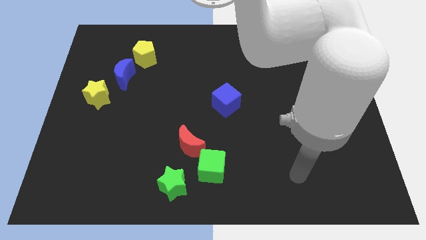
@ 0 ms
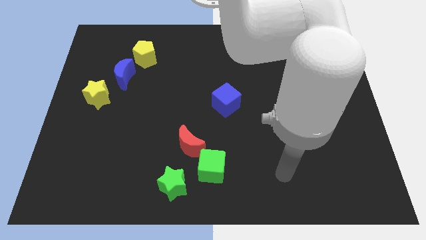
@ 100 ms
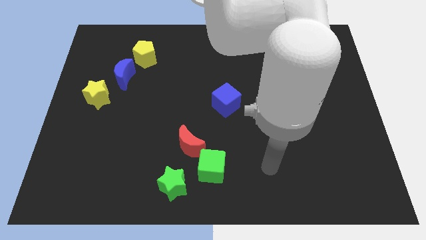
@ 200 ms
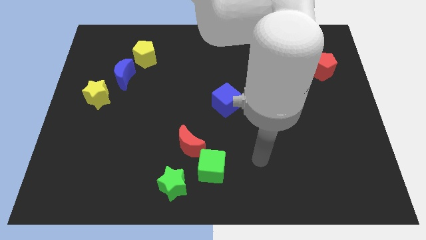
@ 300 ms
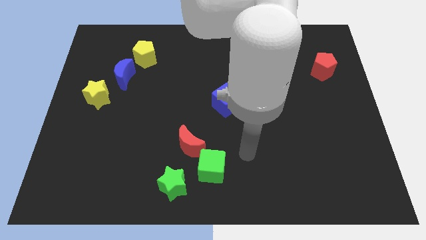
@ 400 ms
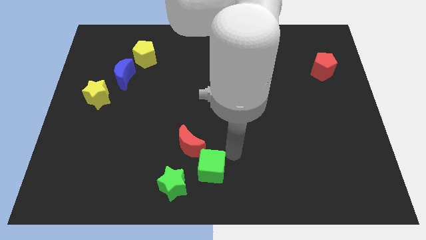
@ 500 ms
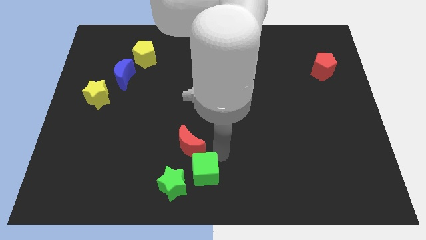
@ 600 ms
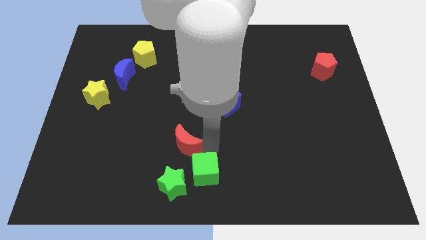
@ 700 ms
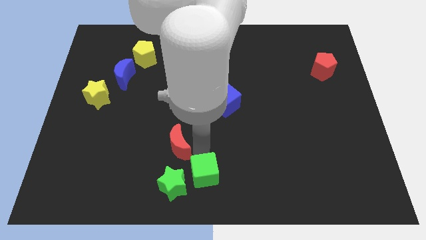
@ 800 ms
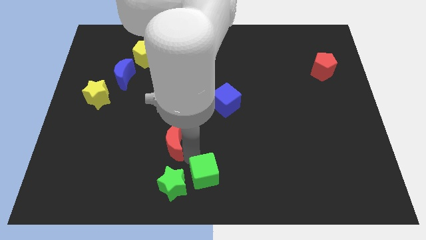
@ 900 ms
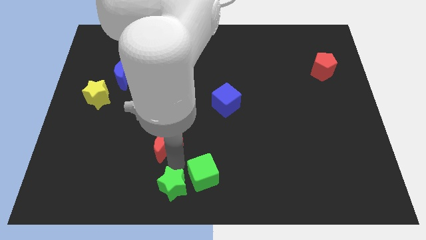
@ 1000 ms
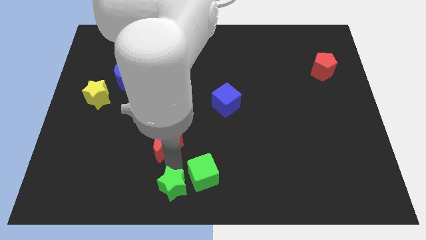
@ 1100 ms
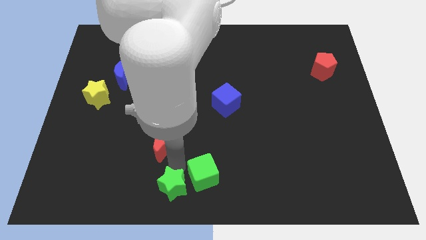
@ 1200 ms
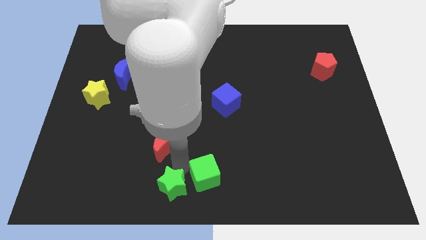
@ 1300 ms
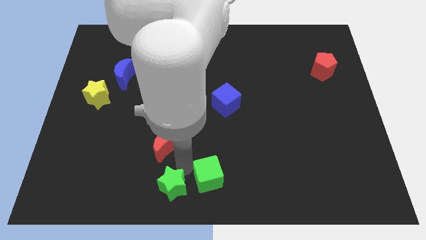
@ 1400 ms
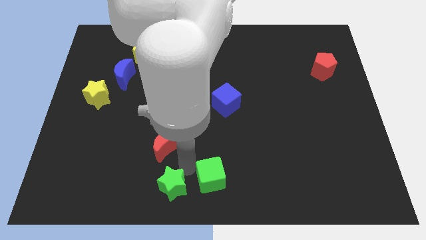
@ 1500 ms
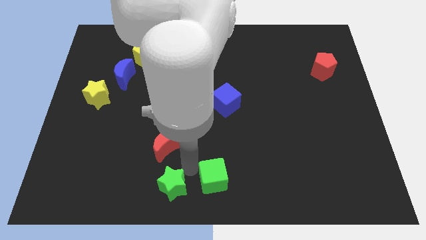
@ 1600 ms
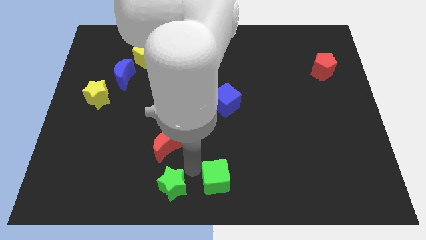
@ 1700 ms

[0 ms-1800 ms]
separate the green cube from the red moon and green star

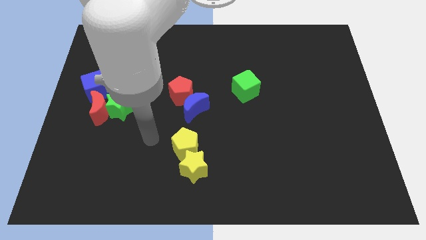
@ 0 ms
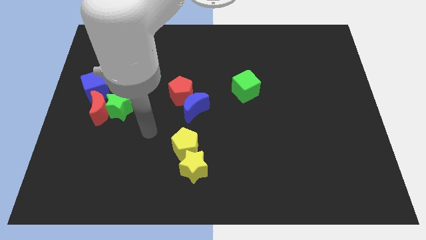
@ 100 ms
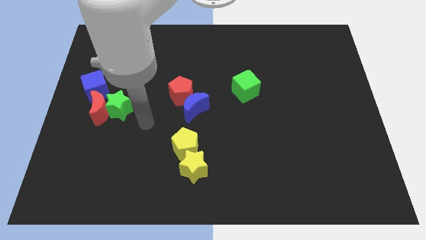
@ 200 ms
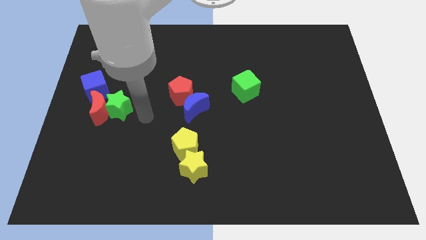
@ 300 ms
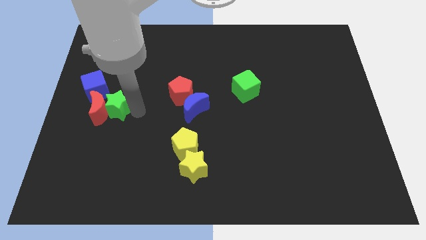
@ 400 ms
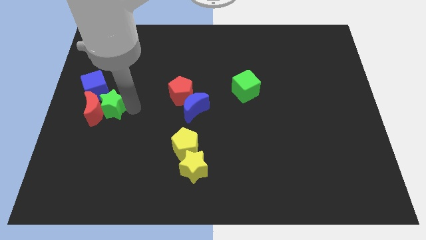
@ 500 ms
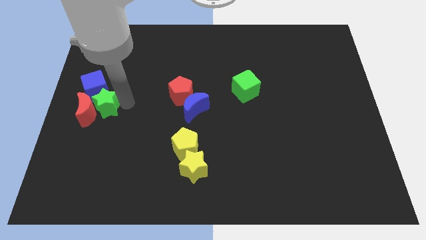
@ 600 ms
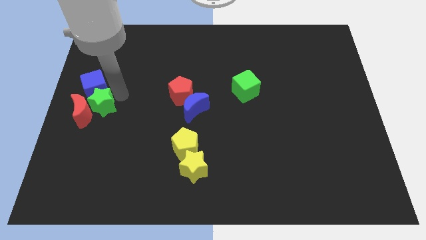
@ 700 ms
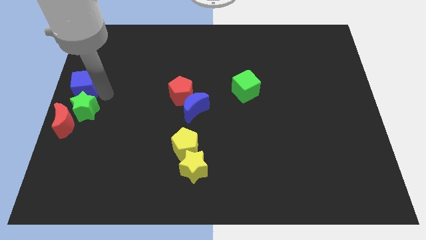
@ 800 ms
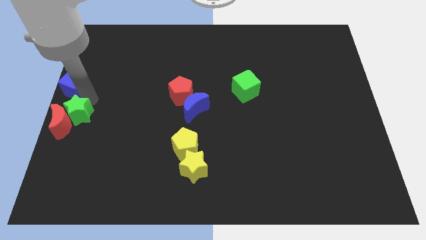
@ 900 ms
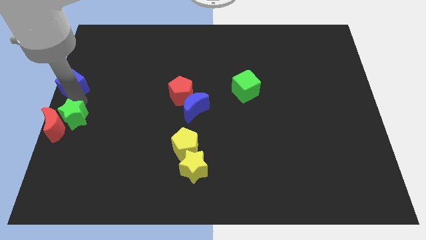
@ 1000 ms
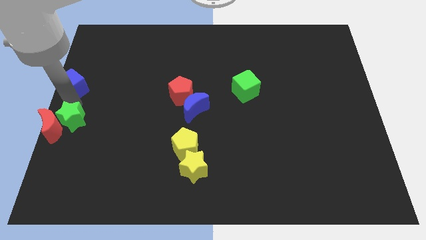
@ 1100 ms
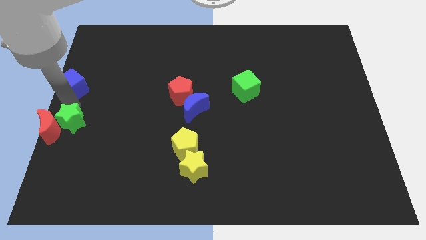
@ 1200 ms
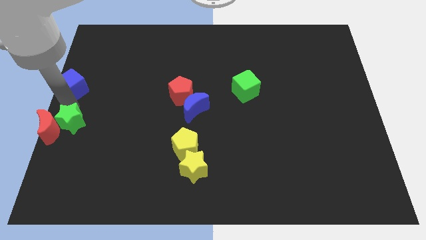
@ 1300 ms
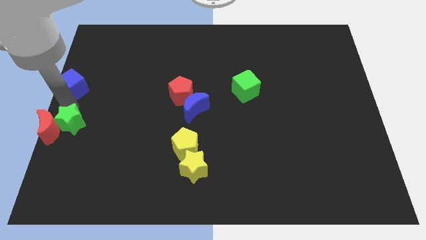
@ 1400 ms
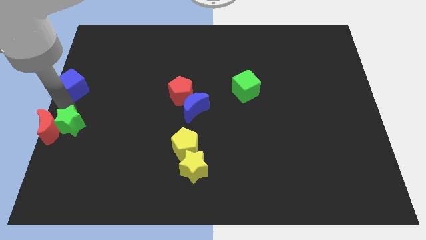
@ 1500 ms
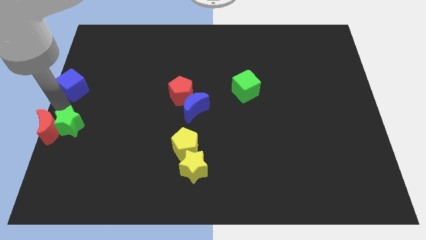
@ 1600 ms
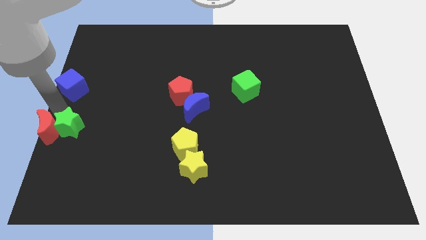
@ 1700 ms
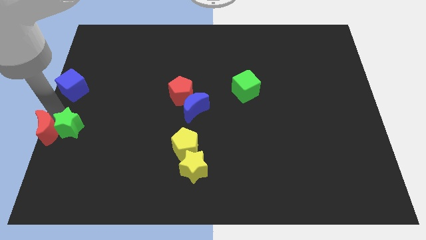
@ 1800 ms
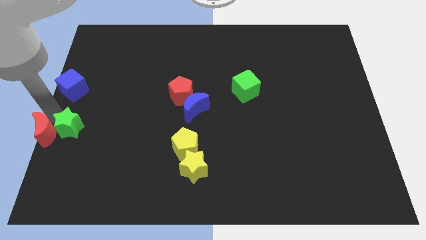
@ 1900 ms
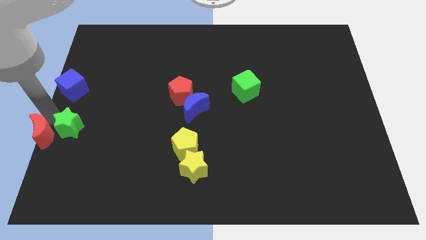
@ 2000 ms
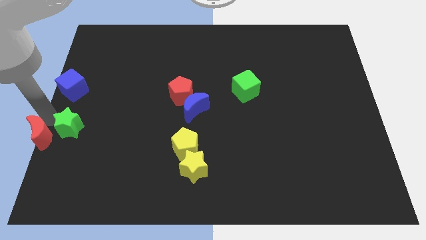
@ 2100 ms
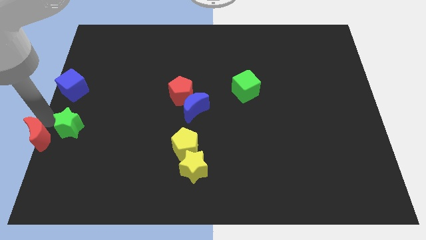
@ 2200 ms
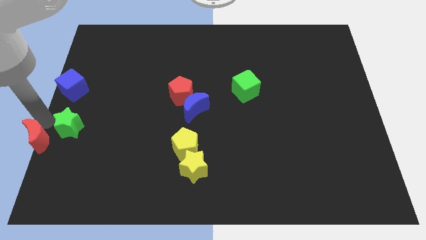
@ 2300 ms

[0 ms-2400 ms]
move the red moon away from the green star and blue cube

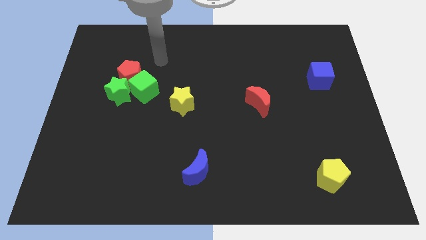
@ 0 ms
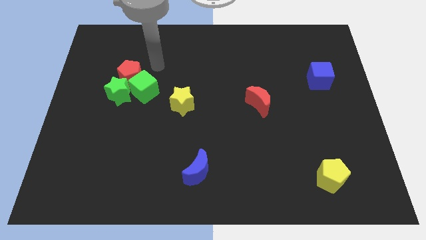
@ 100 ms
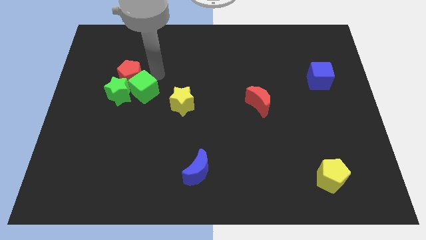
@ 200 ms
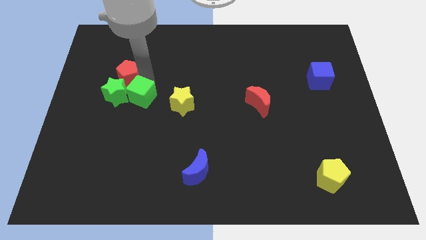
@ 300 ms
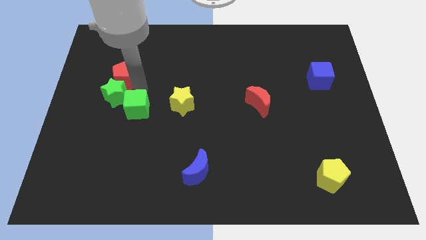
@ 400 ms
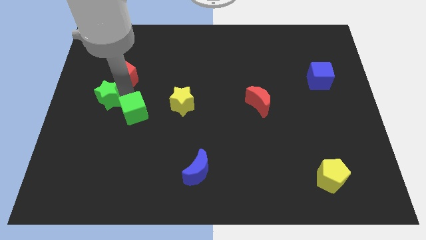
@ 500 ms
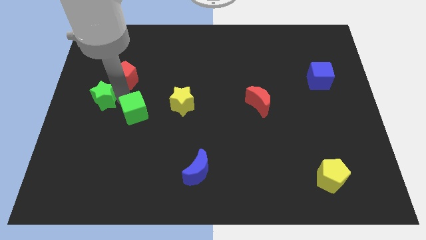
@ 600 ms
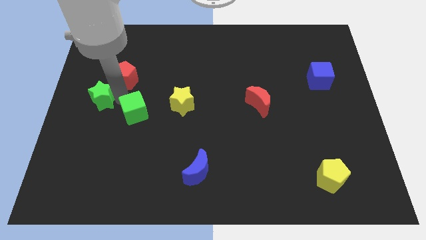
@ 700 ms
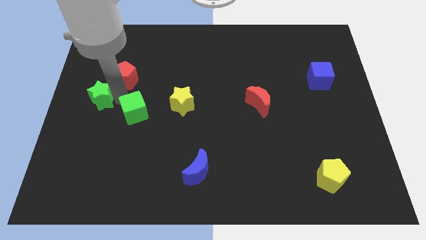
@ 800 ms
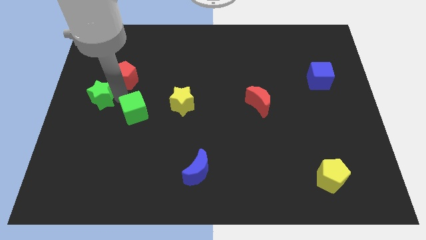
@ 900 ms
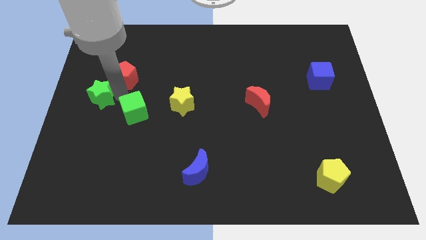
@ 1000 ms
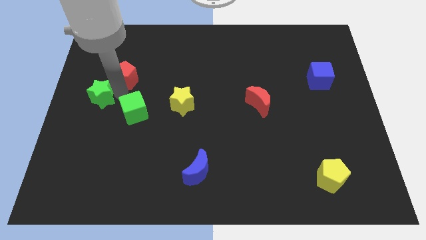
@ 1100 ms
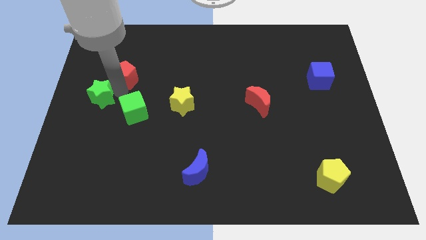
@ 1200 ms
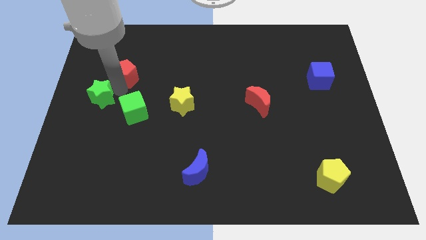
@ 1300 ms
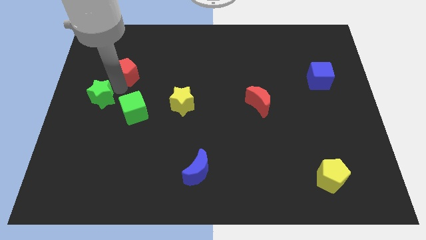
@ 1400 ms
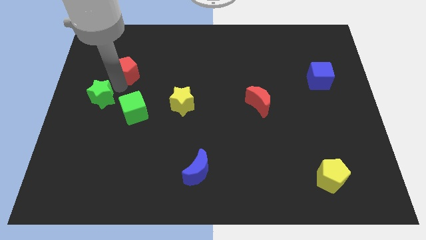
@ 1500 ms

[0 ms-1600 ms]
move the red pentagon away from the green cube and green star

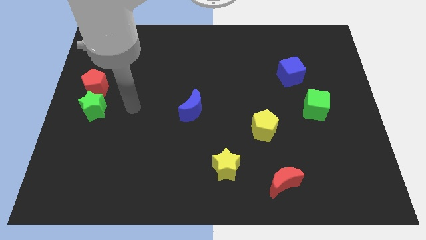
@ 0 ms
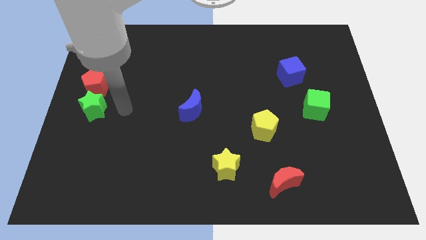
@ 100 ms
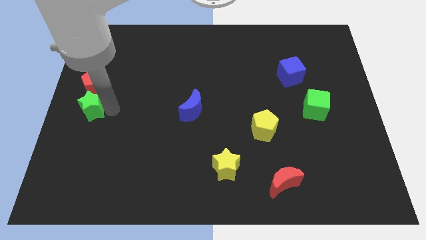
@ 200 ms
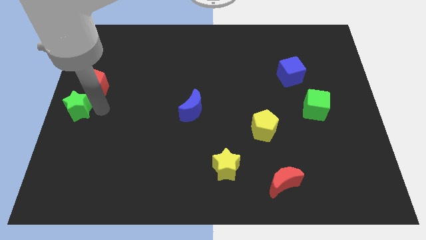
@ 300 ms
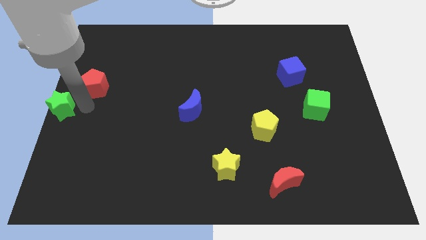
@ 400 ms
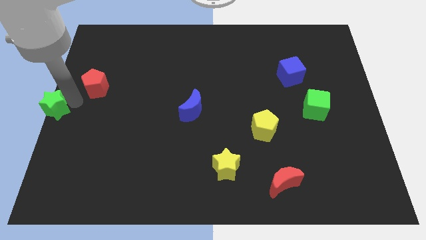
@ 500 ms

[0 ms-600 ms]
separate the red pentagon from the green star

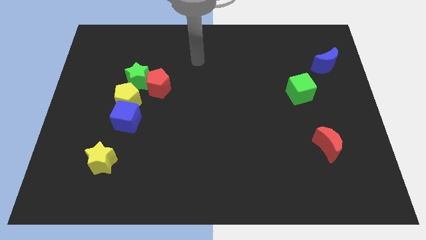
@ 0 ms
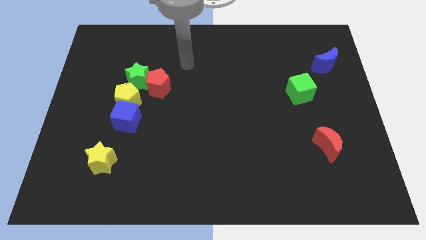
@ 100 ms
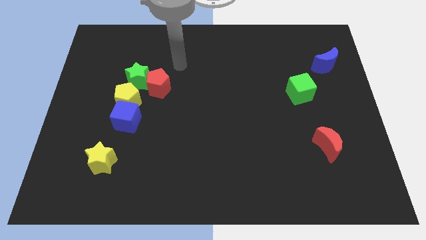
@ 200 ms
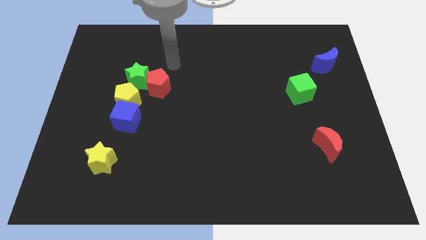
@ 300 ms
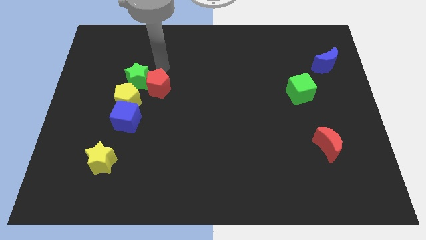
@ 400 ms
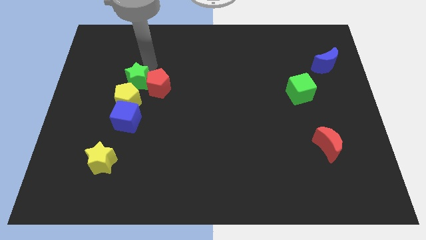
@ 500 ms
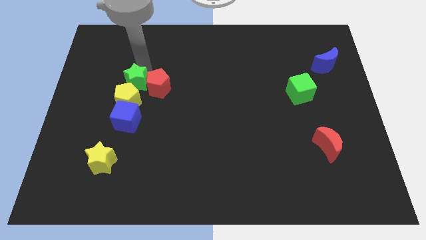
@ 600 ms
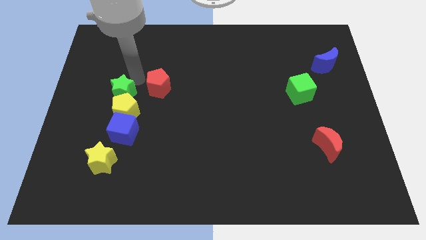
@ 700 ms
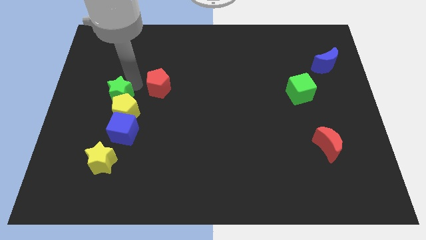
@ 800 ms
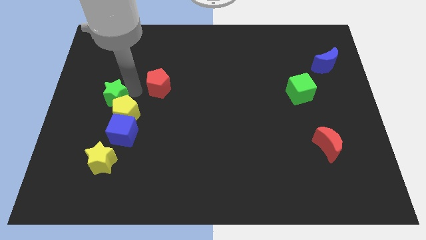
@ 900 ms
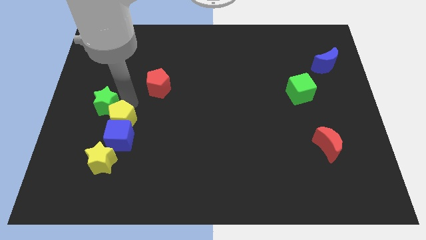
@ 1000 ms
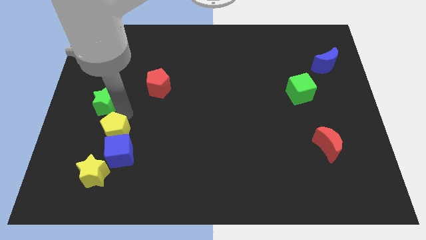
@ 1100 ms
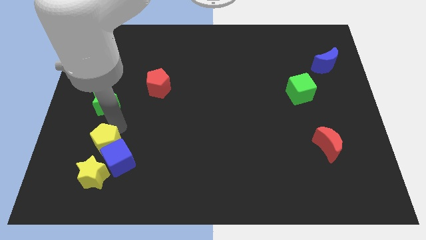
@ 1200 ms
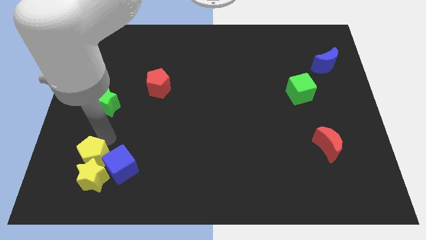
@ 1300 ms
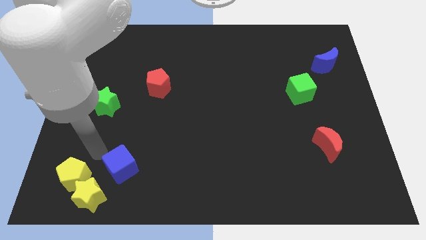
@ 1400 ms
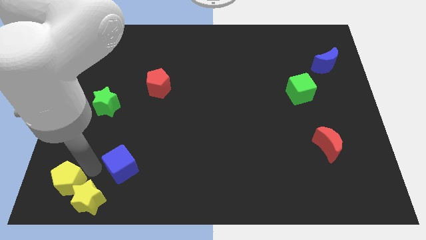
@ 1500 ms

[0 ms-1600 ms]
move the blue cube away from the yellow pentagon

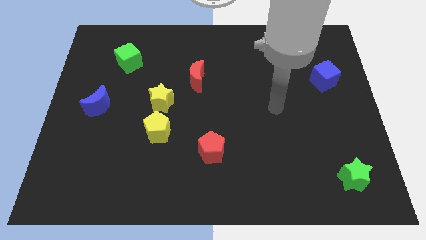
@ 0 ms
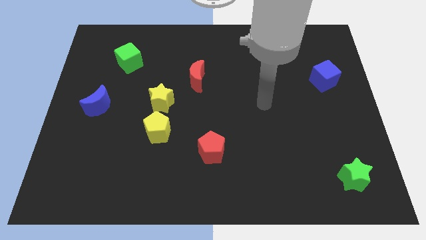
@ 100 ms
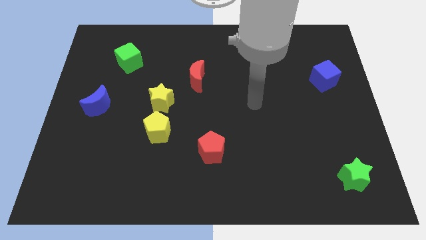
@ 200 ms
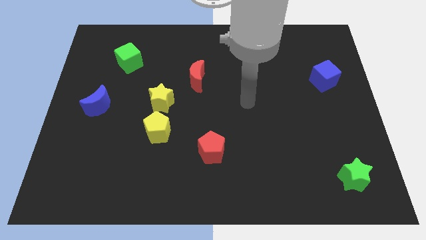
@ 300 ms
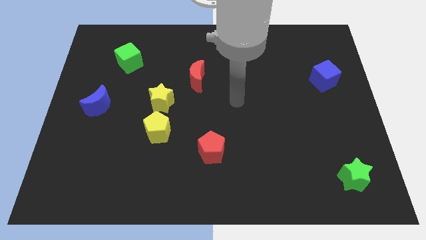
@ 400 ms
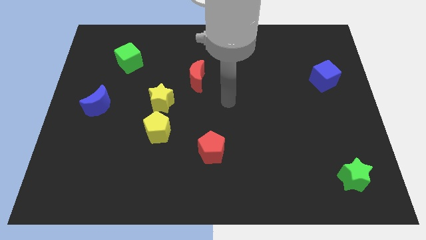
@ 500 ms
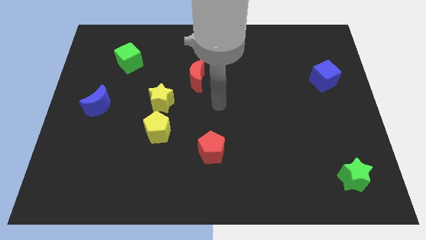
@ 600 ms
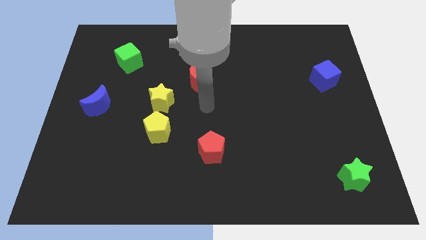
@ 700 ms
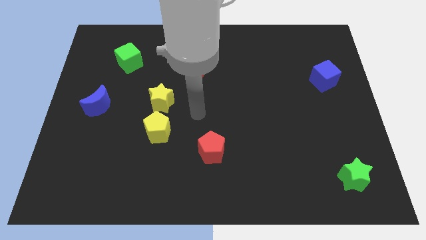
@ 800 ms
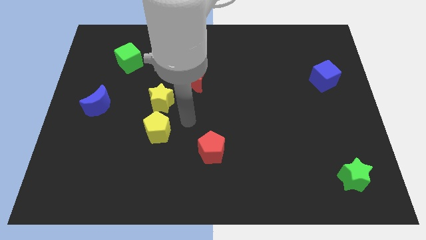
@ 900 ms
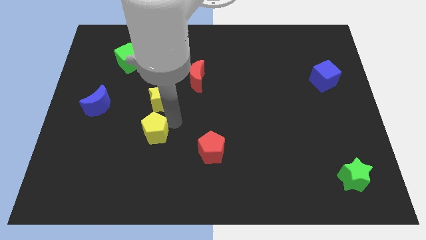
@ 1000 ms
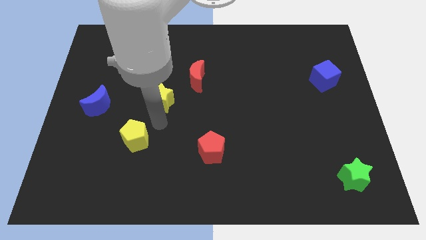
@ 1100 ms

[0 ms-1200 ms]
move the yellow star away from the yellow pentagon
